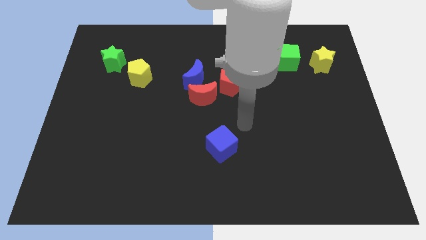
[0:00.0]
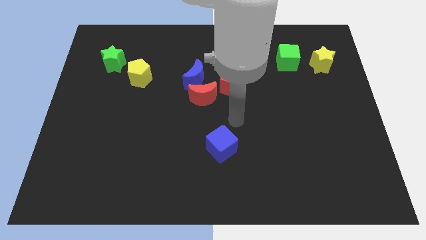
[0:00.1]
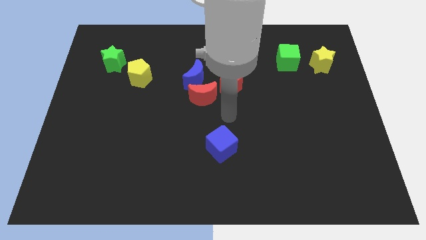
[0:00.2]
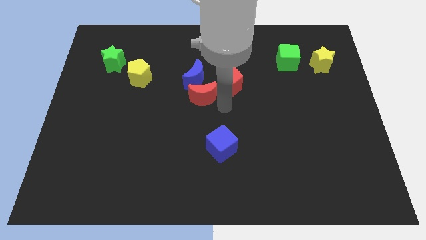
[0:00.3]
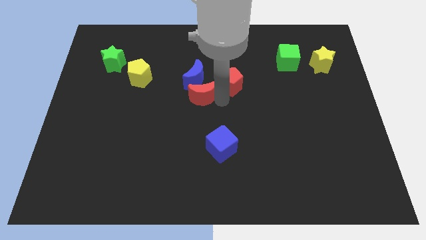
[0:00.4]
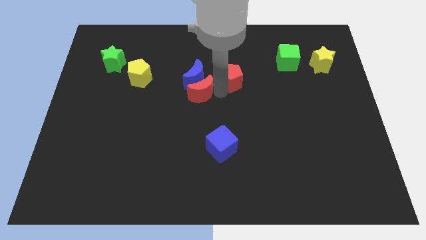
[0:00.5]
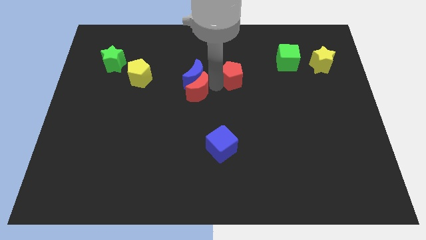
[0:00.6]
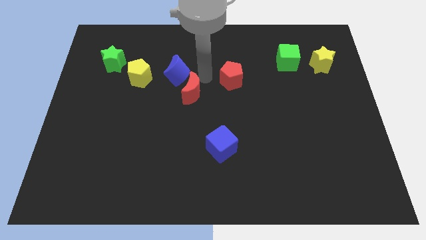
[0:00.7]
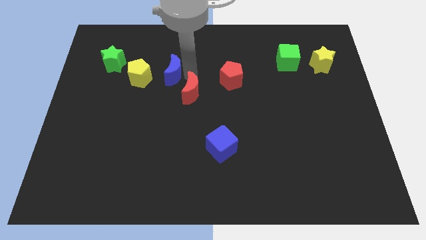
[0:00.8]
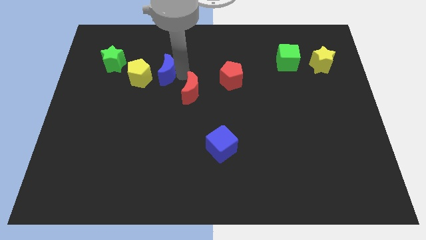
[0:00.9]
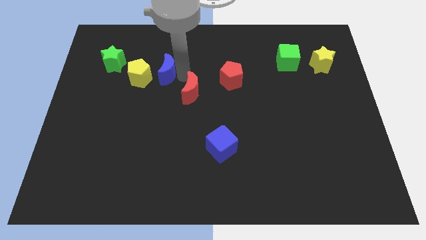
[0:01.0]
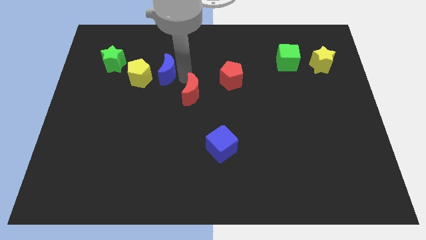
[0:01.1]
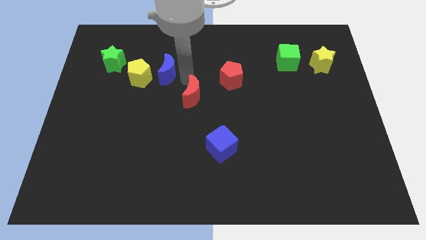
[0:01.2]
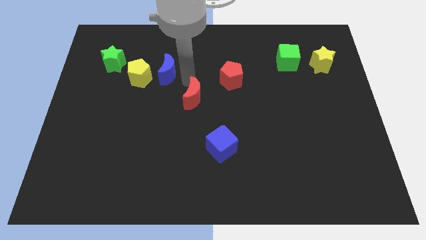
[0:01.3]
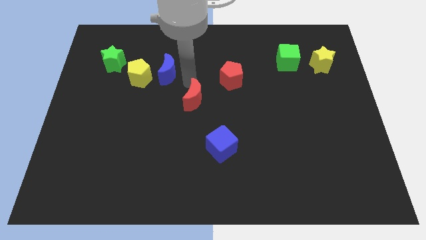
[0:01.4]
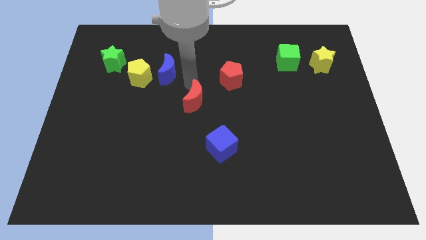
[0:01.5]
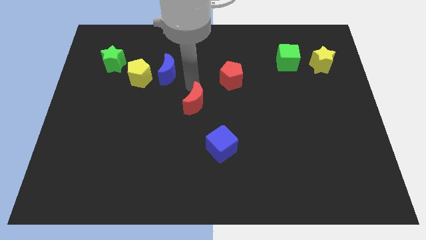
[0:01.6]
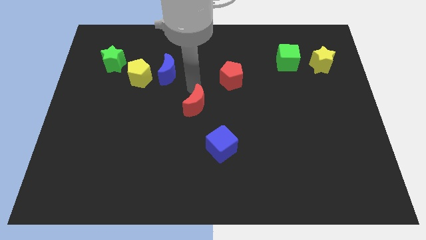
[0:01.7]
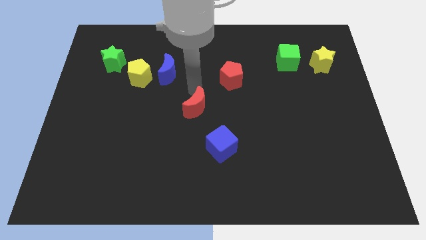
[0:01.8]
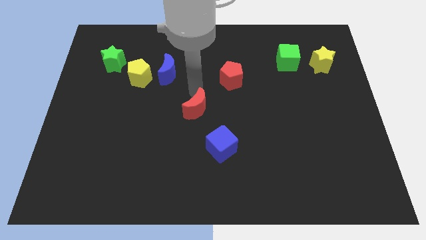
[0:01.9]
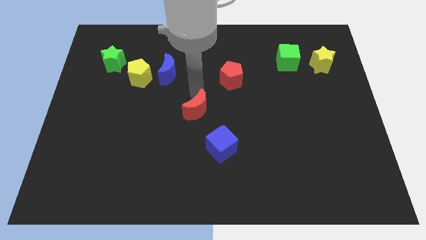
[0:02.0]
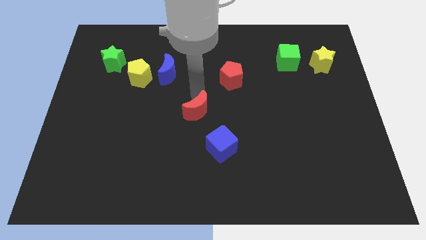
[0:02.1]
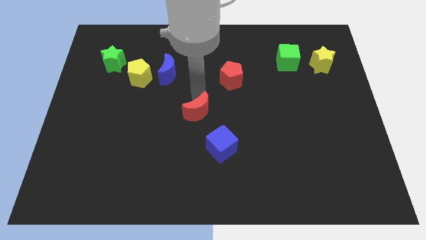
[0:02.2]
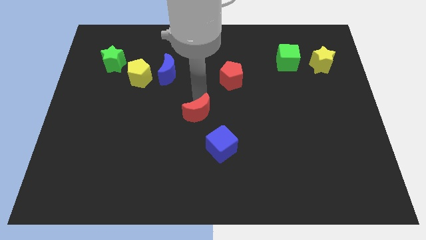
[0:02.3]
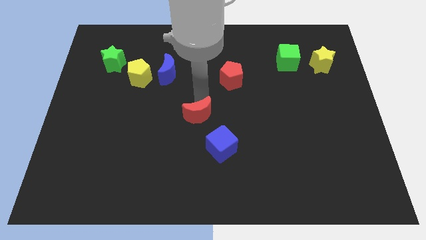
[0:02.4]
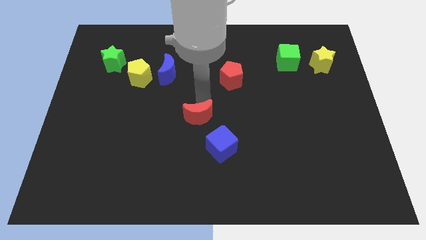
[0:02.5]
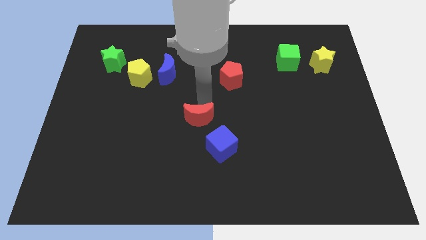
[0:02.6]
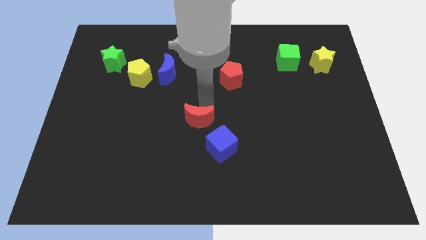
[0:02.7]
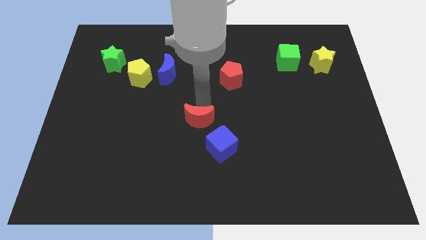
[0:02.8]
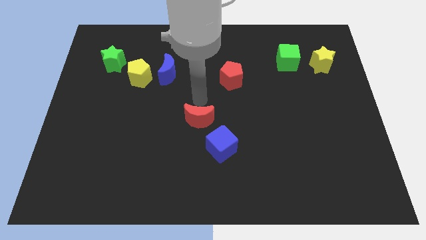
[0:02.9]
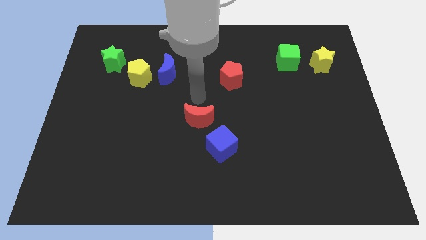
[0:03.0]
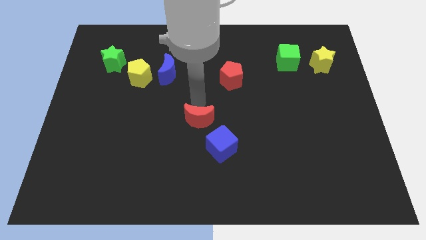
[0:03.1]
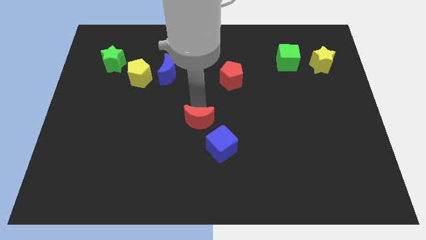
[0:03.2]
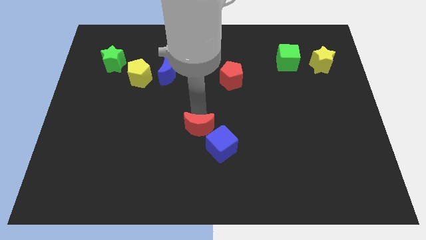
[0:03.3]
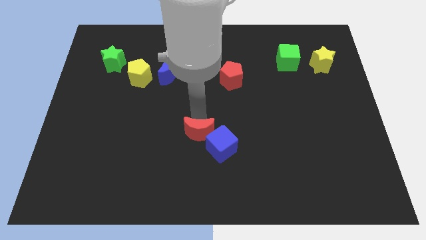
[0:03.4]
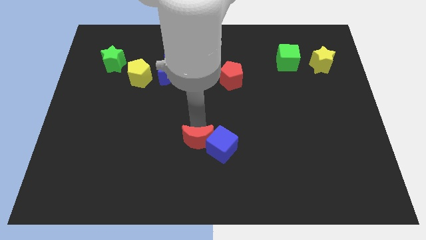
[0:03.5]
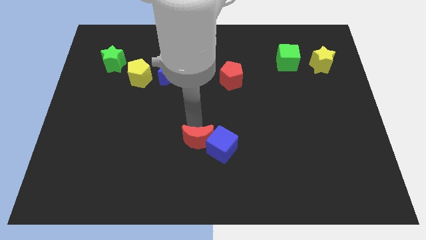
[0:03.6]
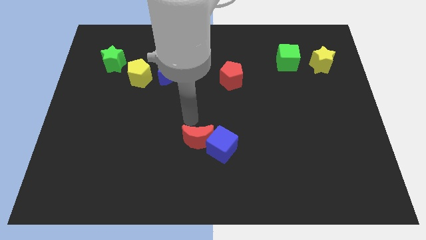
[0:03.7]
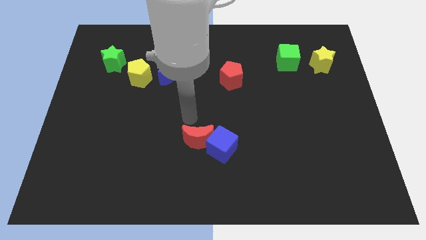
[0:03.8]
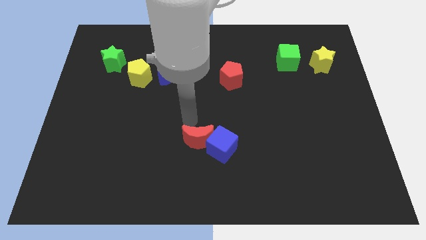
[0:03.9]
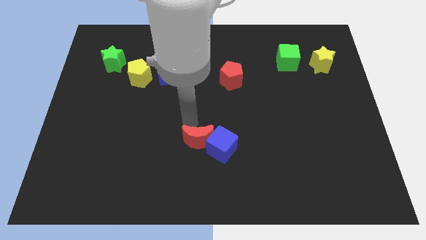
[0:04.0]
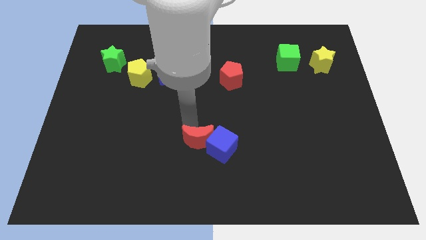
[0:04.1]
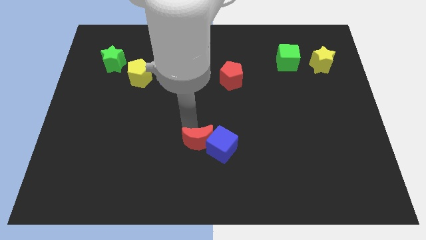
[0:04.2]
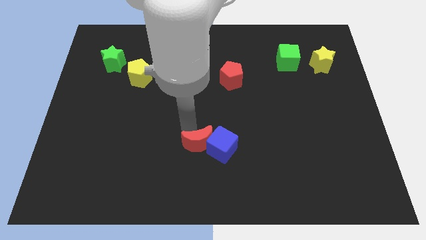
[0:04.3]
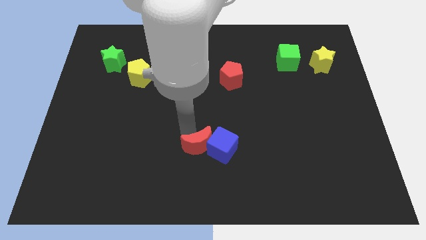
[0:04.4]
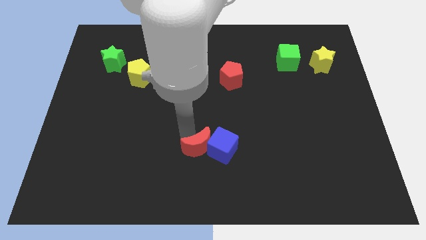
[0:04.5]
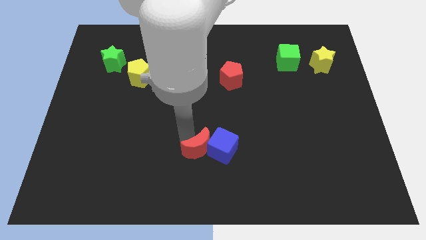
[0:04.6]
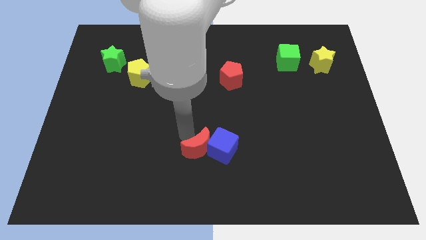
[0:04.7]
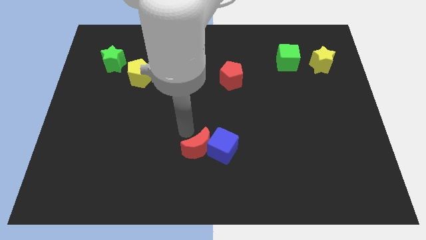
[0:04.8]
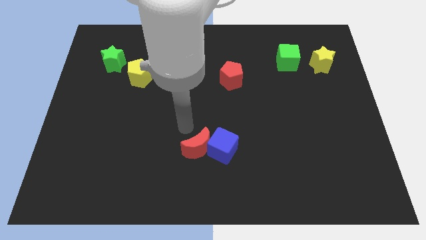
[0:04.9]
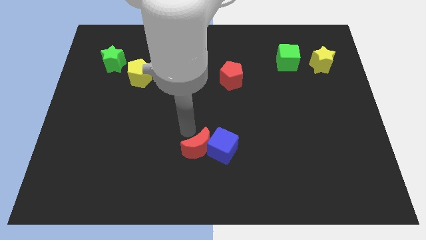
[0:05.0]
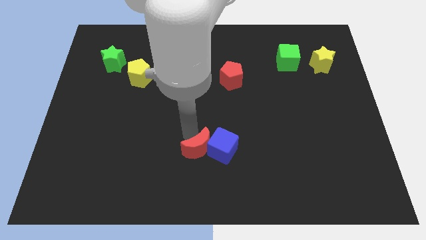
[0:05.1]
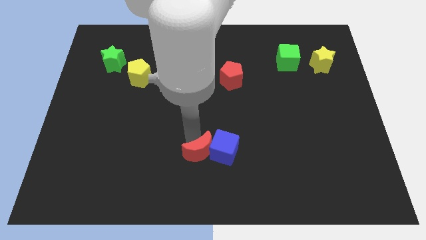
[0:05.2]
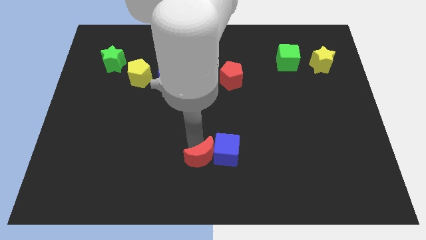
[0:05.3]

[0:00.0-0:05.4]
push the red moon to the bottom

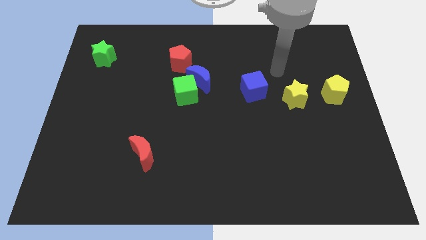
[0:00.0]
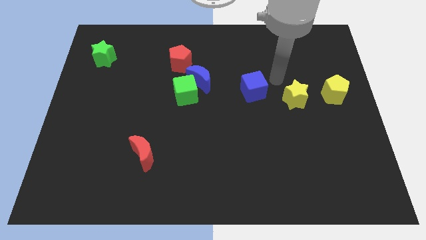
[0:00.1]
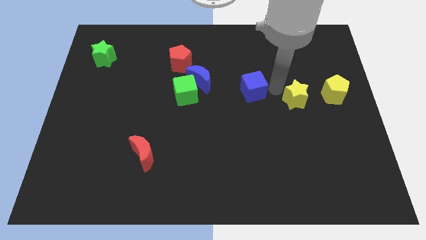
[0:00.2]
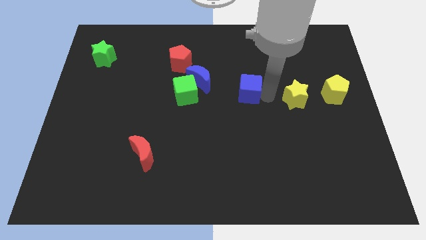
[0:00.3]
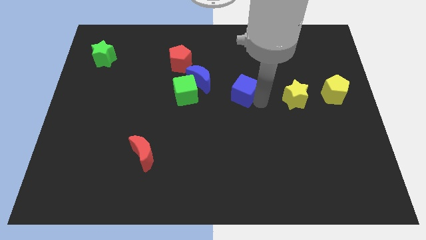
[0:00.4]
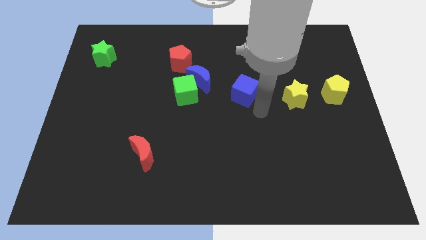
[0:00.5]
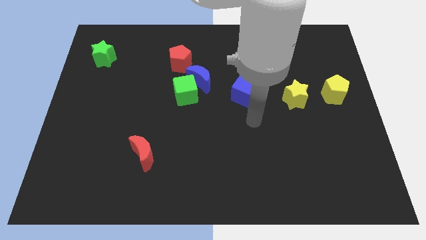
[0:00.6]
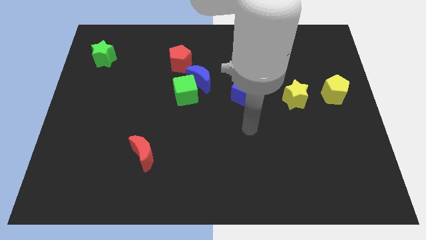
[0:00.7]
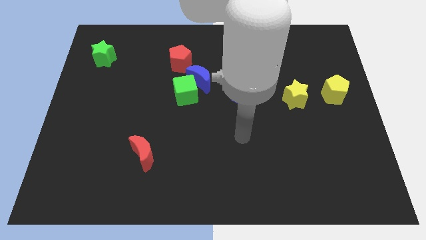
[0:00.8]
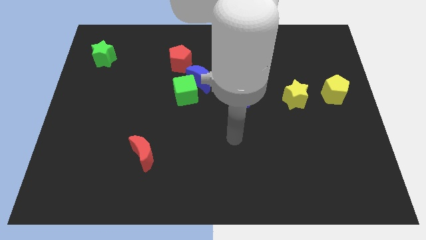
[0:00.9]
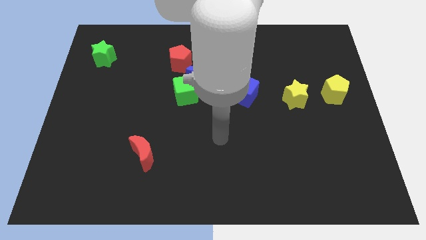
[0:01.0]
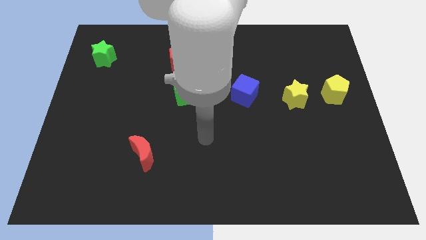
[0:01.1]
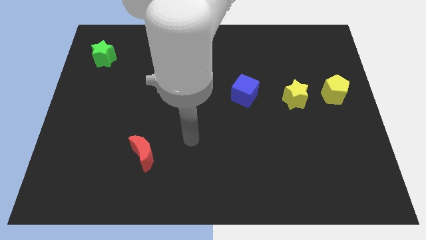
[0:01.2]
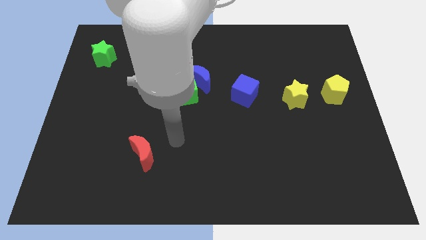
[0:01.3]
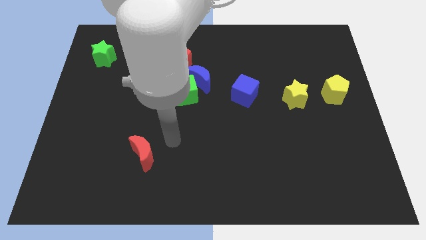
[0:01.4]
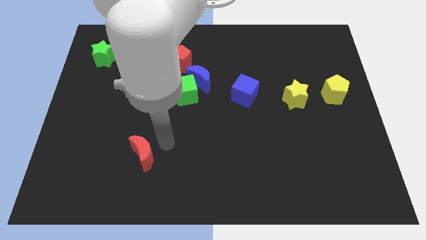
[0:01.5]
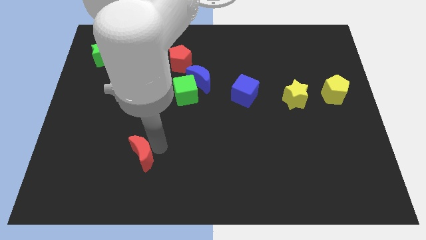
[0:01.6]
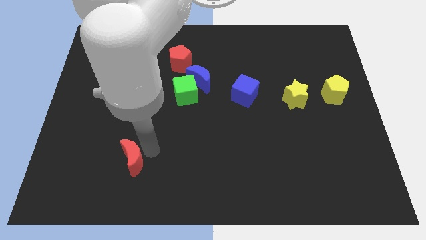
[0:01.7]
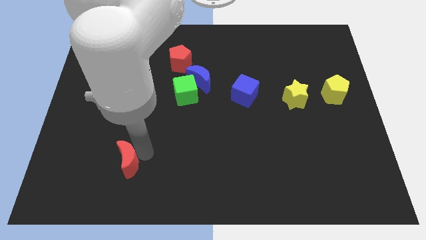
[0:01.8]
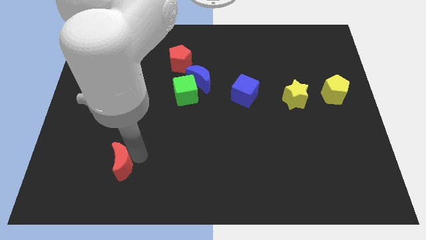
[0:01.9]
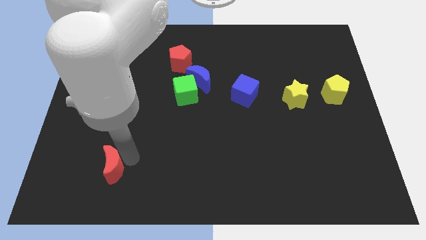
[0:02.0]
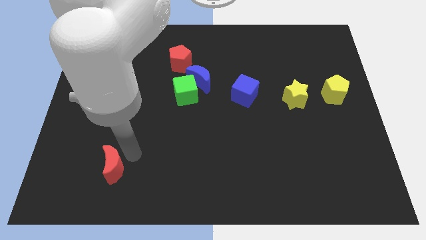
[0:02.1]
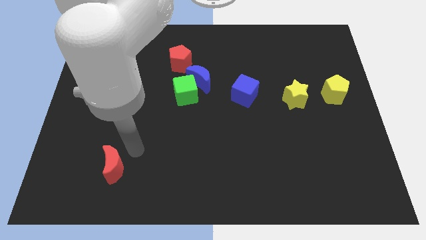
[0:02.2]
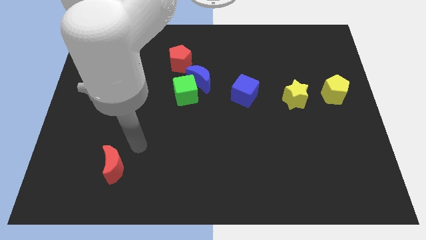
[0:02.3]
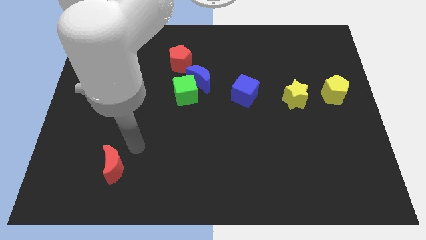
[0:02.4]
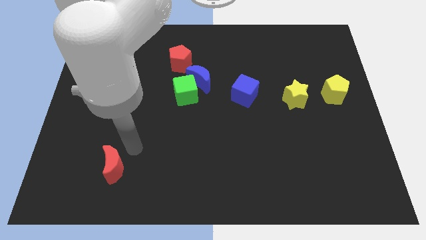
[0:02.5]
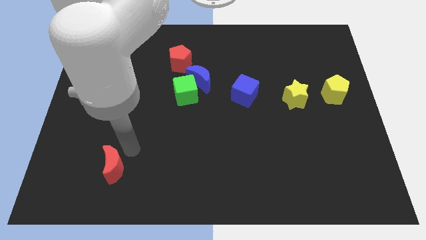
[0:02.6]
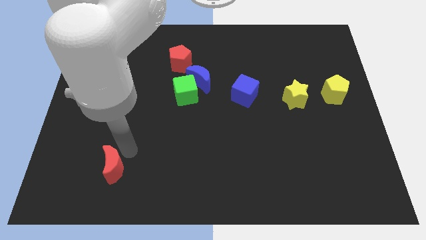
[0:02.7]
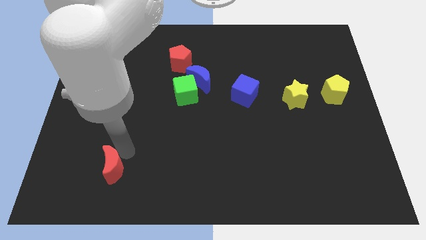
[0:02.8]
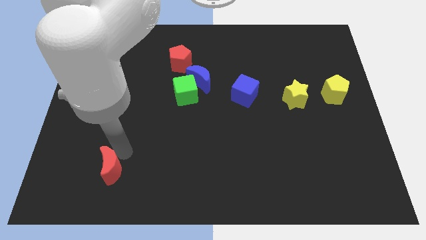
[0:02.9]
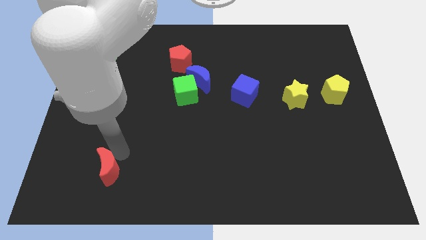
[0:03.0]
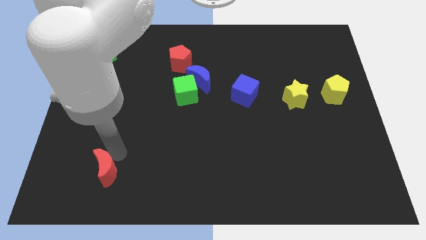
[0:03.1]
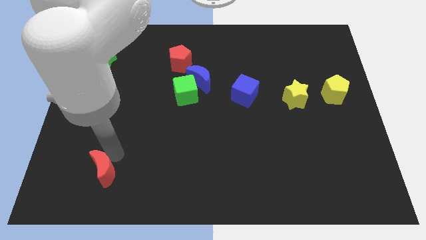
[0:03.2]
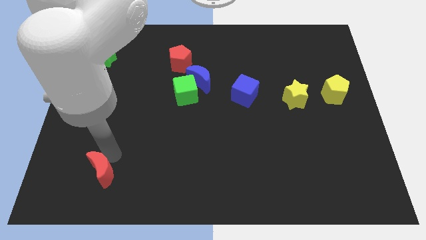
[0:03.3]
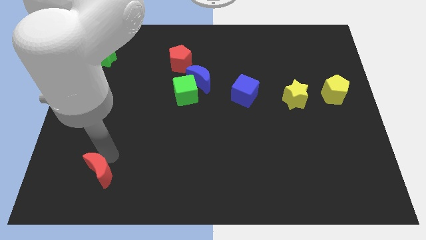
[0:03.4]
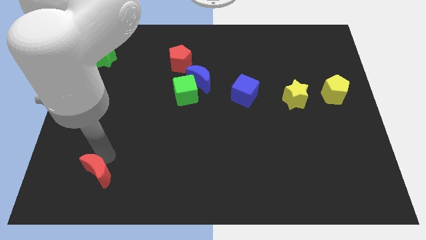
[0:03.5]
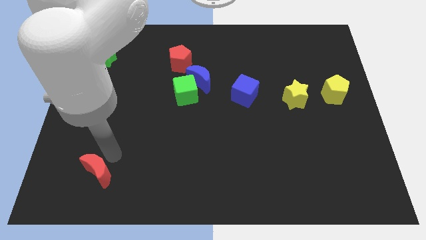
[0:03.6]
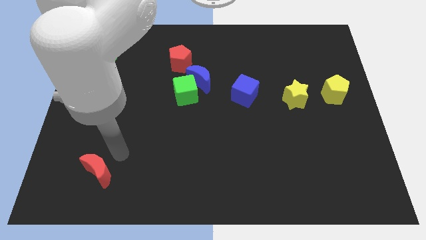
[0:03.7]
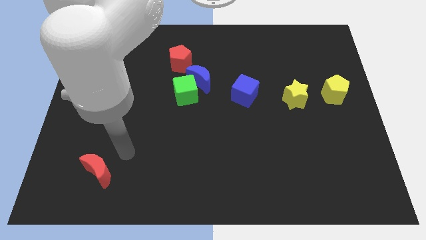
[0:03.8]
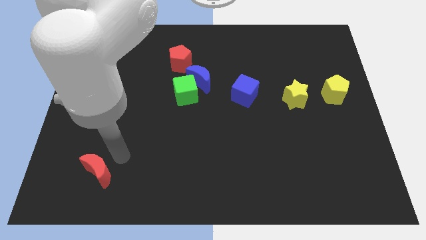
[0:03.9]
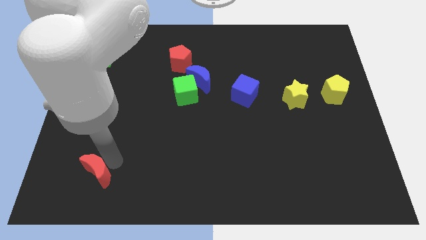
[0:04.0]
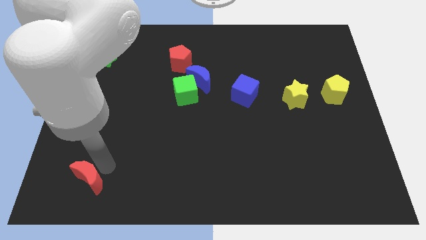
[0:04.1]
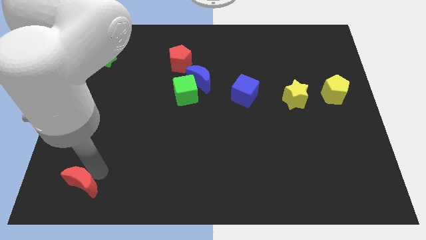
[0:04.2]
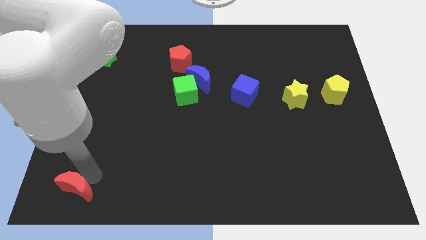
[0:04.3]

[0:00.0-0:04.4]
put the red moon to the lower left corner
